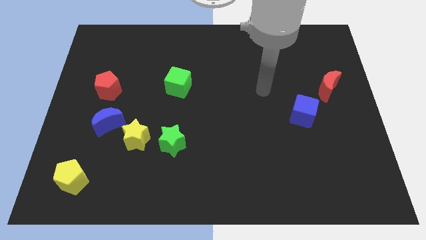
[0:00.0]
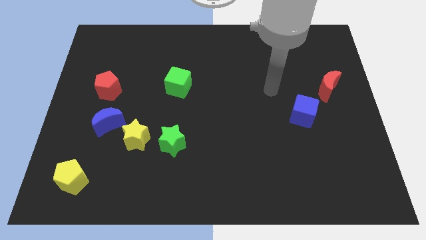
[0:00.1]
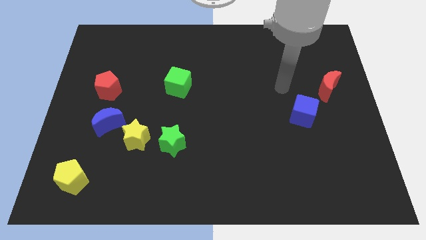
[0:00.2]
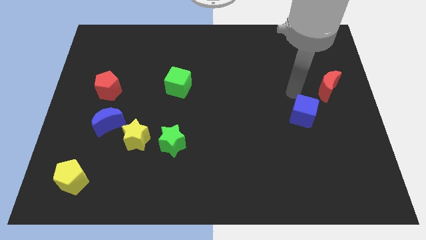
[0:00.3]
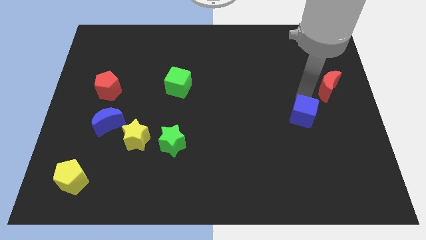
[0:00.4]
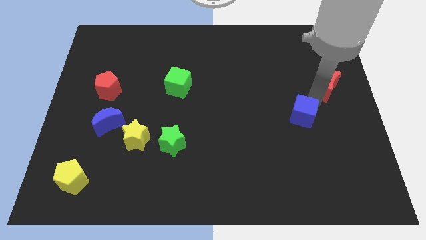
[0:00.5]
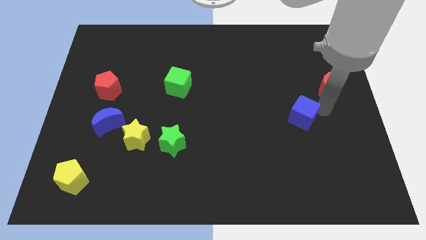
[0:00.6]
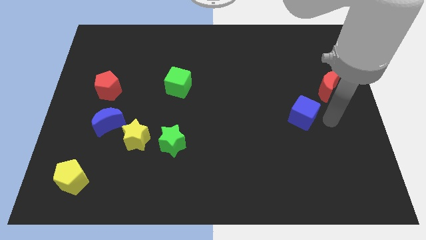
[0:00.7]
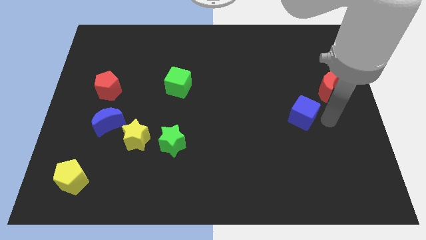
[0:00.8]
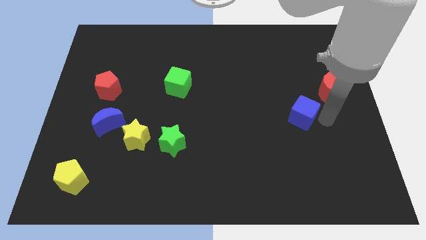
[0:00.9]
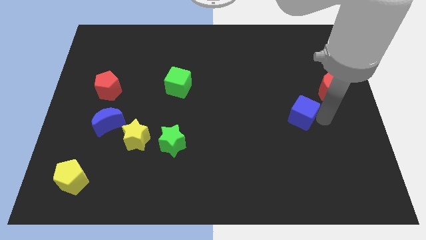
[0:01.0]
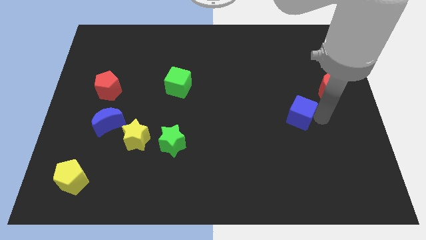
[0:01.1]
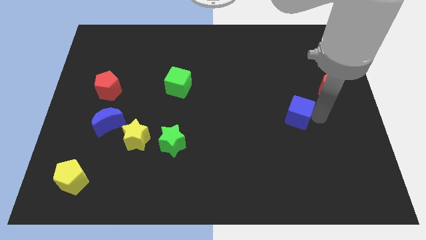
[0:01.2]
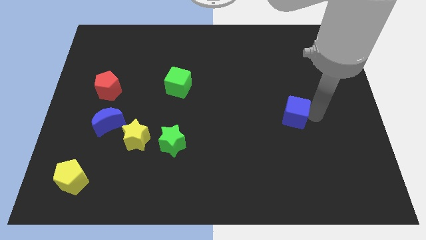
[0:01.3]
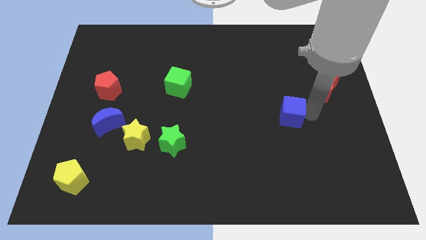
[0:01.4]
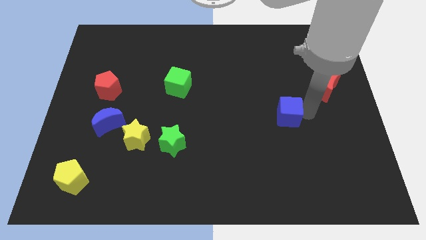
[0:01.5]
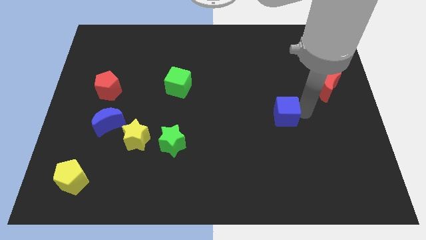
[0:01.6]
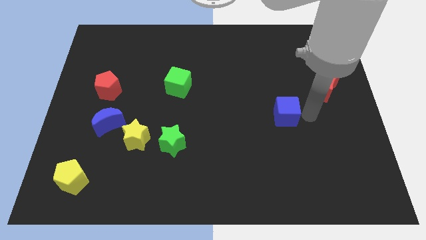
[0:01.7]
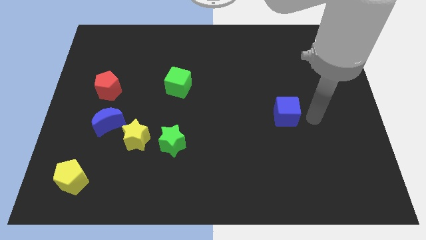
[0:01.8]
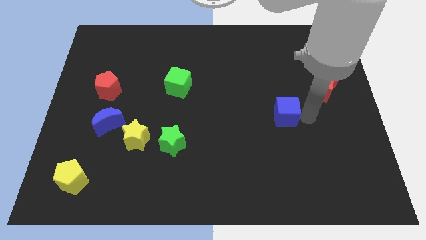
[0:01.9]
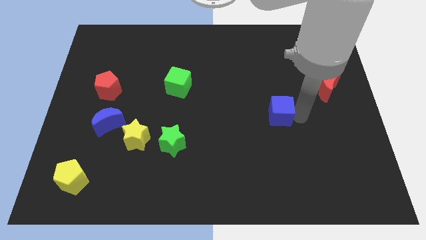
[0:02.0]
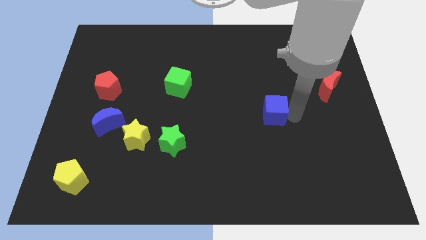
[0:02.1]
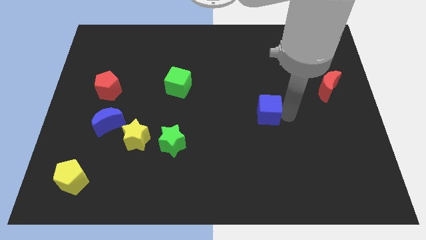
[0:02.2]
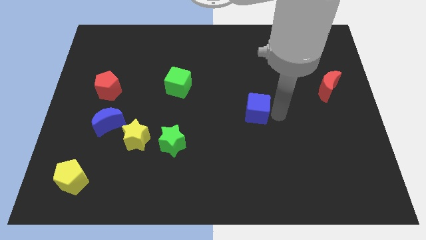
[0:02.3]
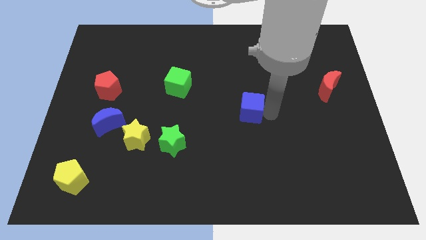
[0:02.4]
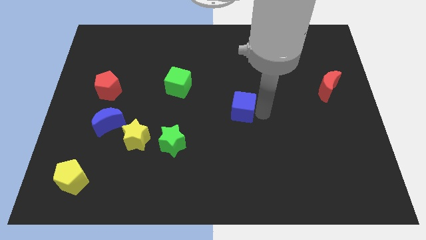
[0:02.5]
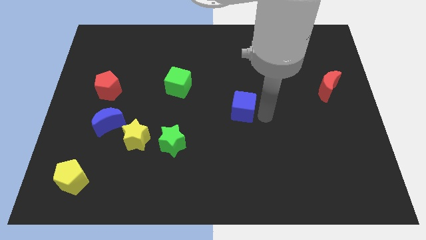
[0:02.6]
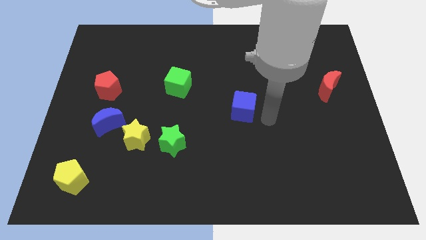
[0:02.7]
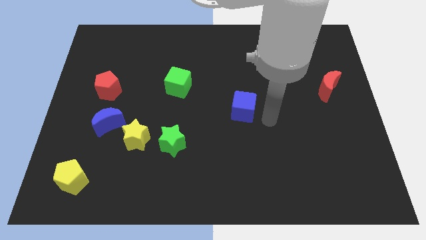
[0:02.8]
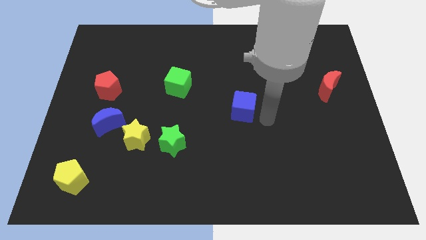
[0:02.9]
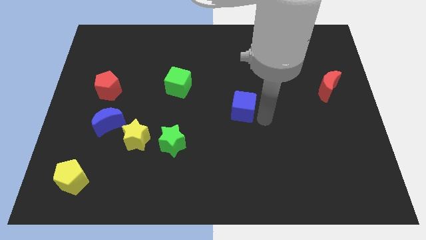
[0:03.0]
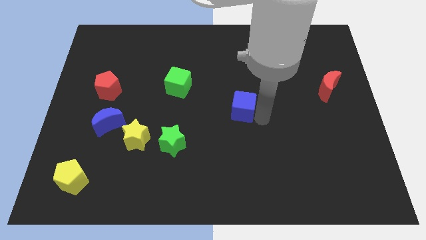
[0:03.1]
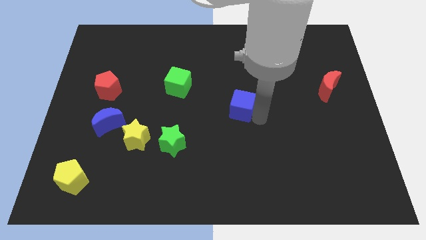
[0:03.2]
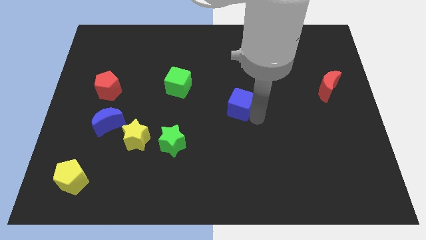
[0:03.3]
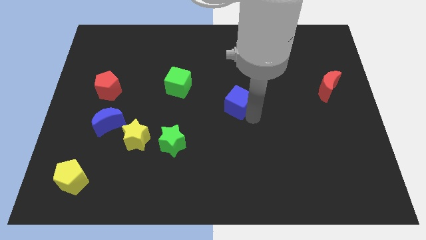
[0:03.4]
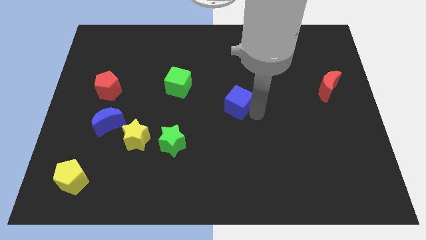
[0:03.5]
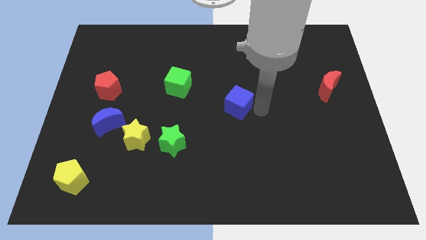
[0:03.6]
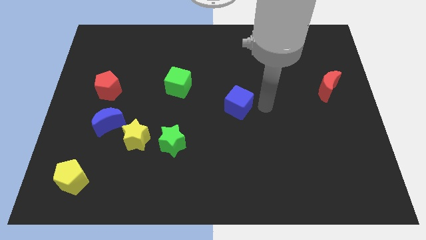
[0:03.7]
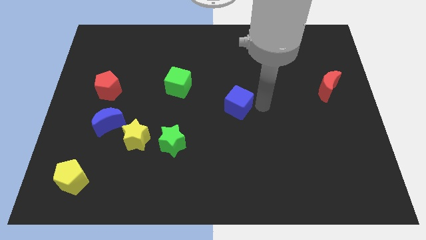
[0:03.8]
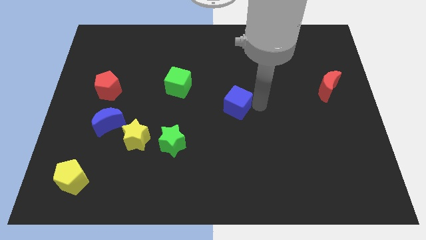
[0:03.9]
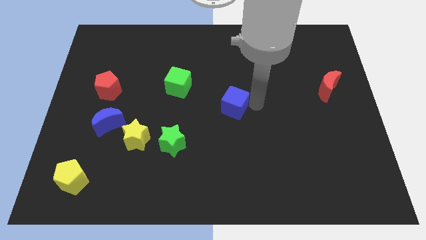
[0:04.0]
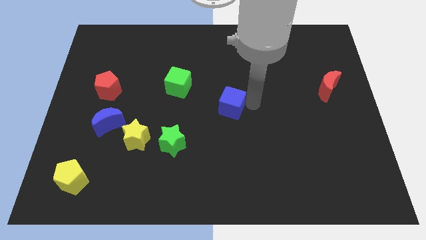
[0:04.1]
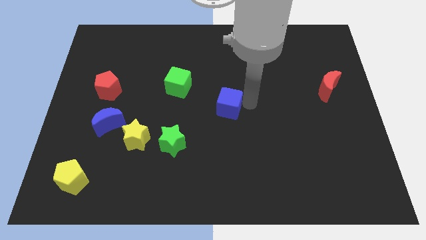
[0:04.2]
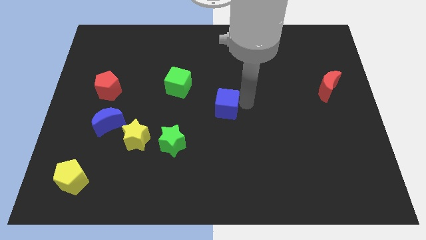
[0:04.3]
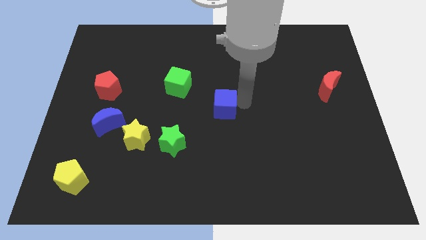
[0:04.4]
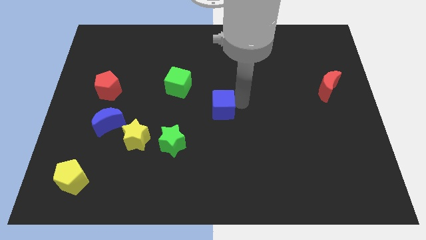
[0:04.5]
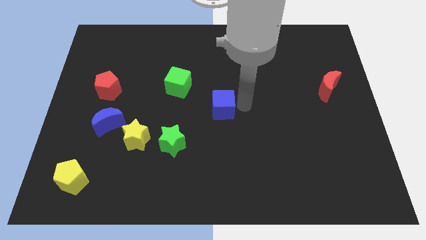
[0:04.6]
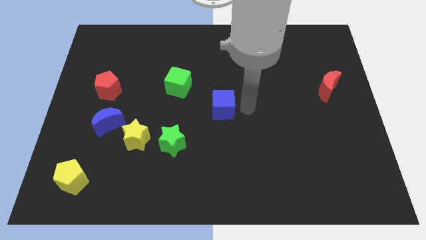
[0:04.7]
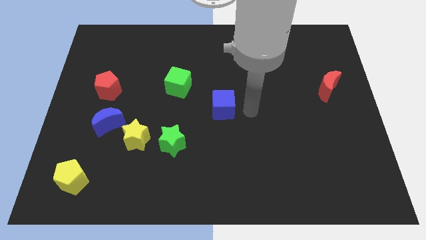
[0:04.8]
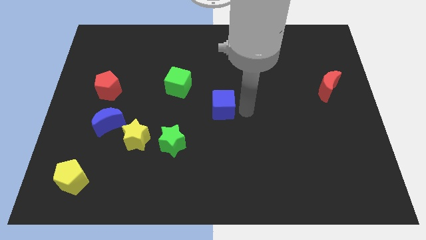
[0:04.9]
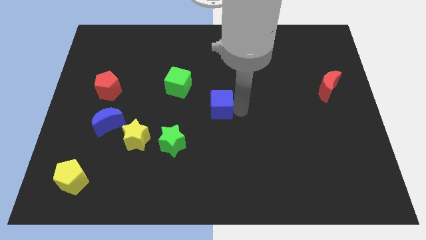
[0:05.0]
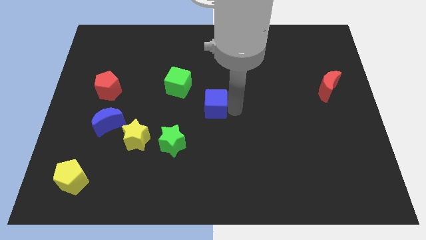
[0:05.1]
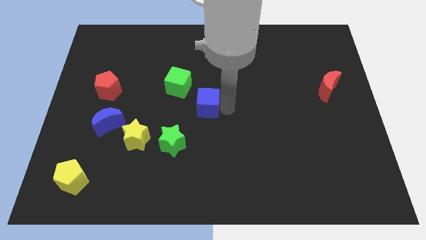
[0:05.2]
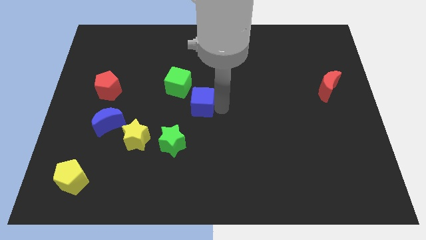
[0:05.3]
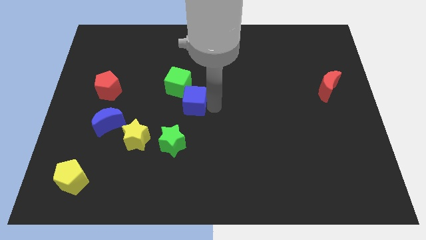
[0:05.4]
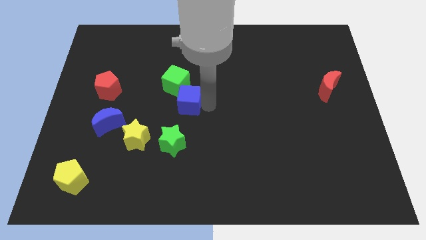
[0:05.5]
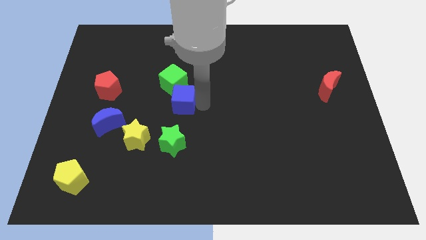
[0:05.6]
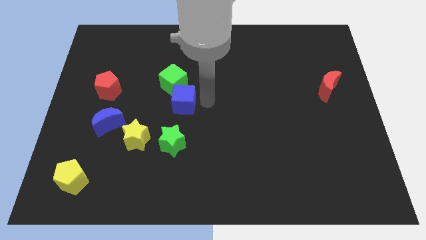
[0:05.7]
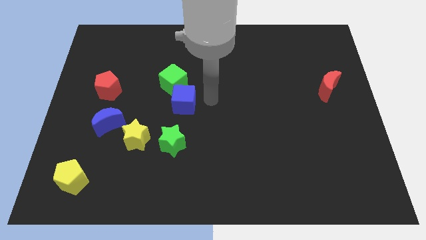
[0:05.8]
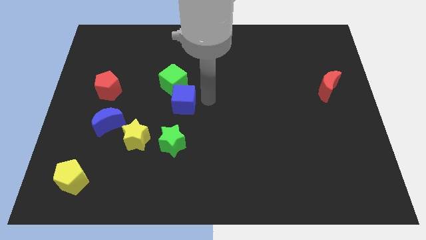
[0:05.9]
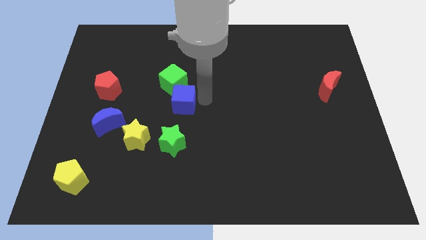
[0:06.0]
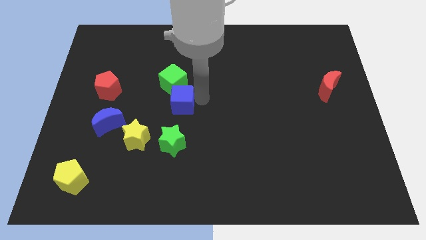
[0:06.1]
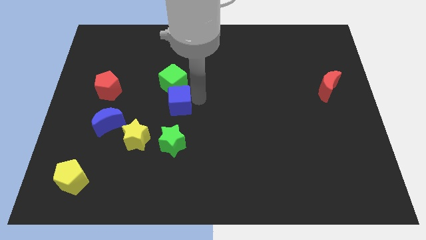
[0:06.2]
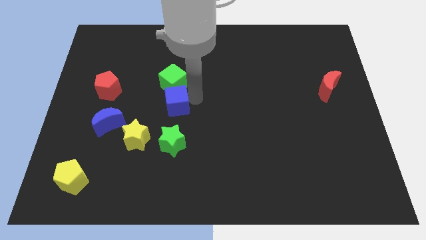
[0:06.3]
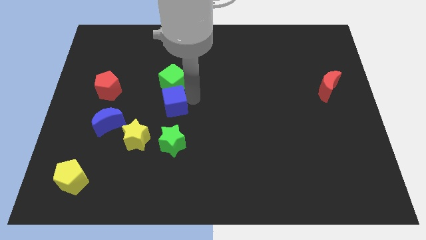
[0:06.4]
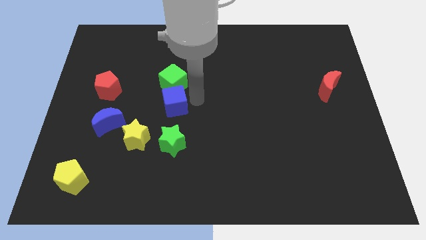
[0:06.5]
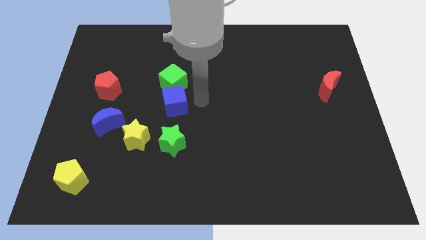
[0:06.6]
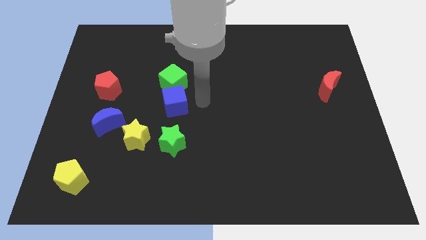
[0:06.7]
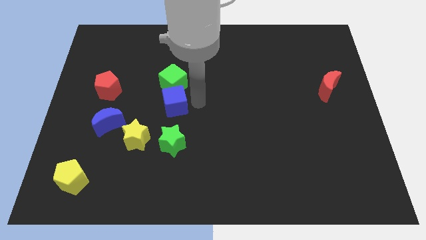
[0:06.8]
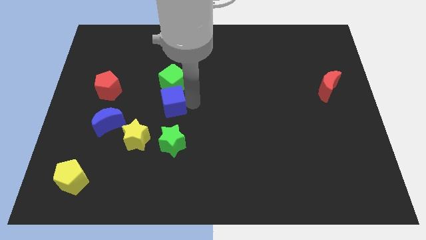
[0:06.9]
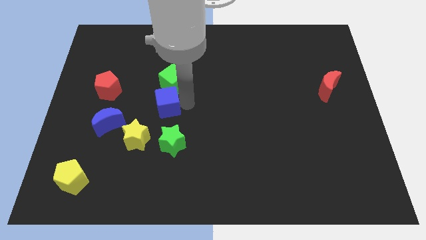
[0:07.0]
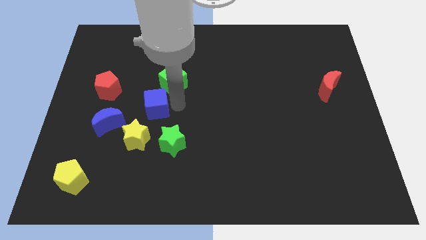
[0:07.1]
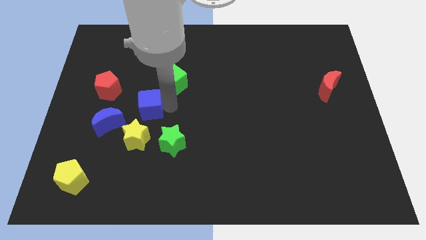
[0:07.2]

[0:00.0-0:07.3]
put the blue cube to the bottom right of the red pentagon

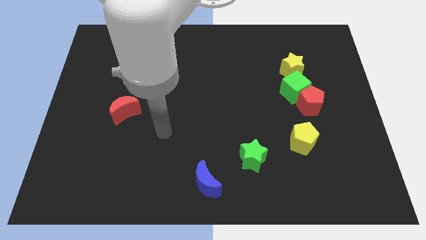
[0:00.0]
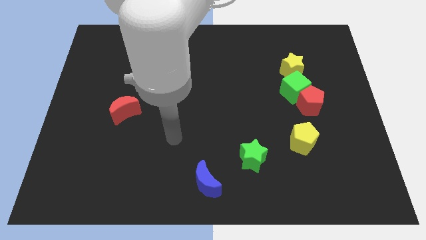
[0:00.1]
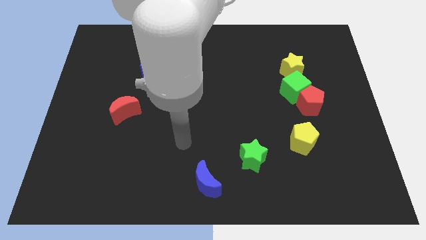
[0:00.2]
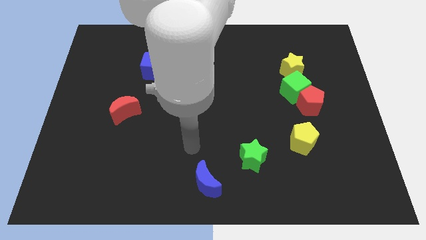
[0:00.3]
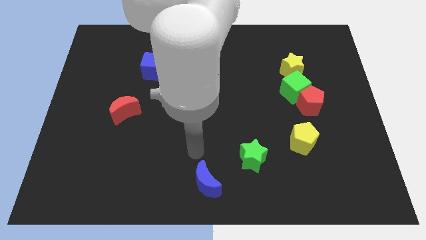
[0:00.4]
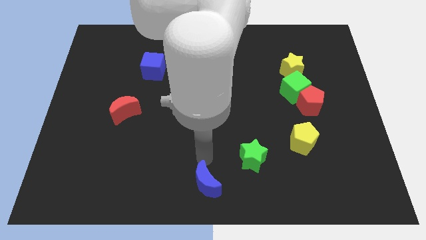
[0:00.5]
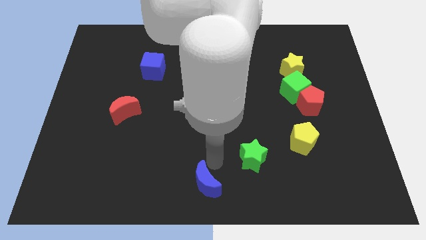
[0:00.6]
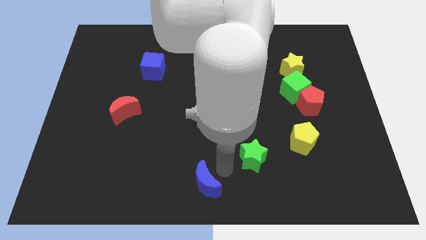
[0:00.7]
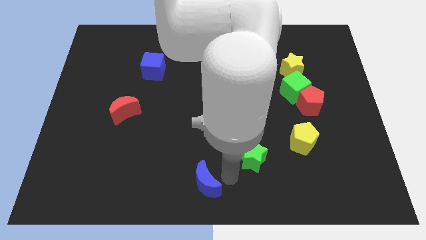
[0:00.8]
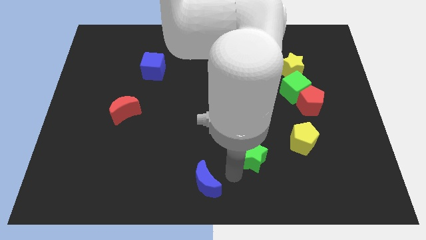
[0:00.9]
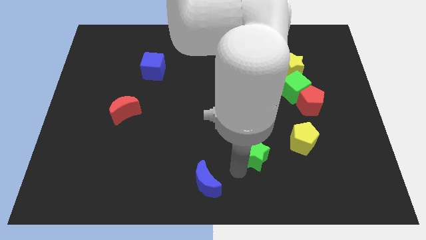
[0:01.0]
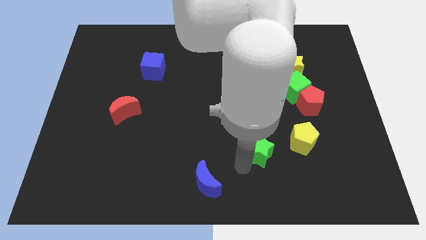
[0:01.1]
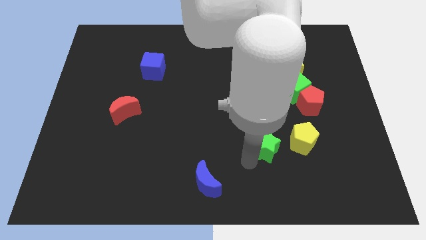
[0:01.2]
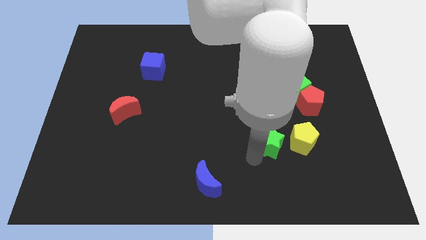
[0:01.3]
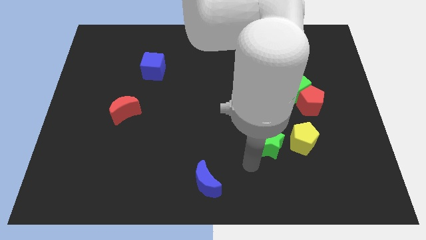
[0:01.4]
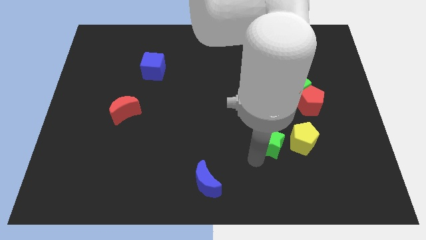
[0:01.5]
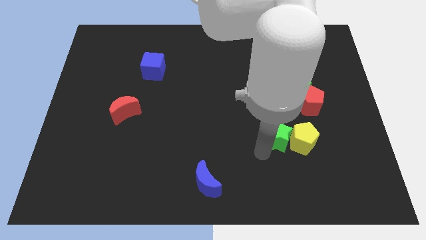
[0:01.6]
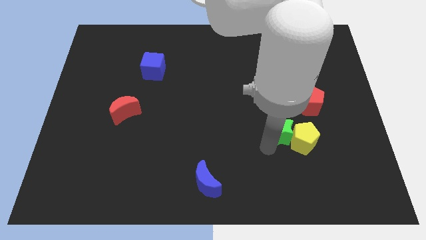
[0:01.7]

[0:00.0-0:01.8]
slide the green star to the bottom left of the red pentagon
